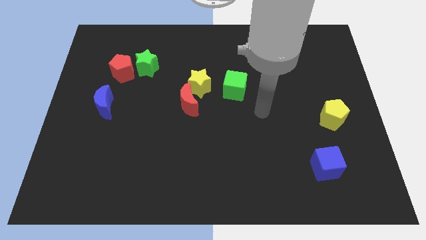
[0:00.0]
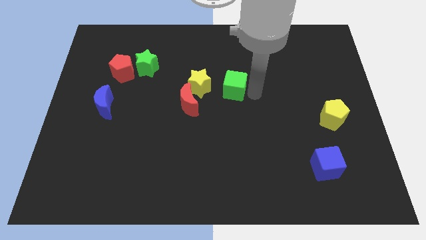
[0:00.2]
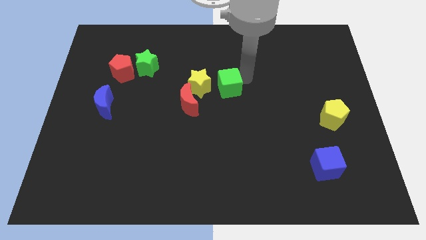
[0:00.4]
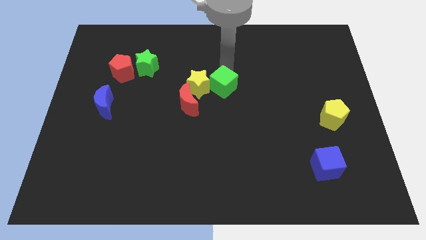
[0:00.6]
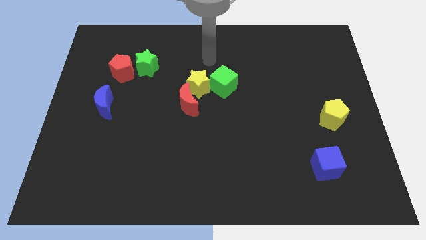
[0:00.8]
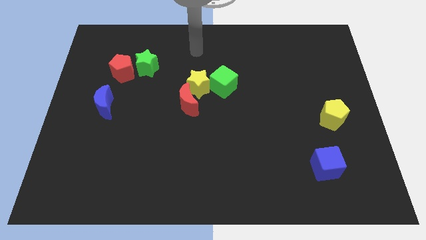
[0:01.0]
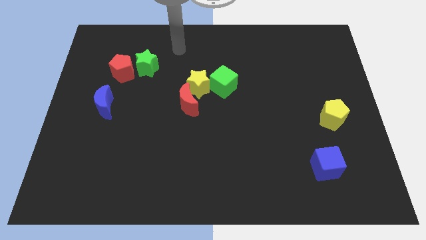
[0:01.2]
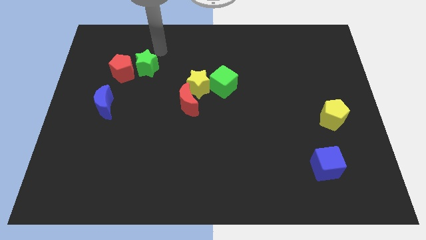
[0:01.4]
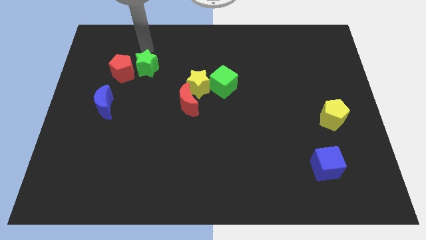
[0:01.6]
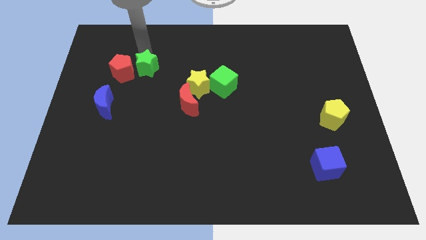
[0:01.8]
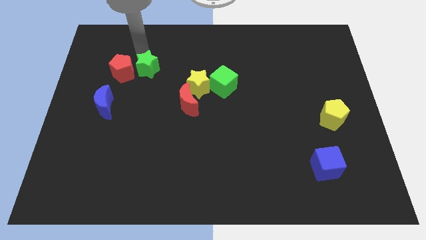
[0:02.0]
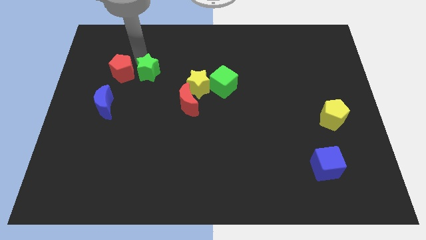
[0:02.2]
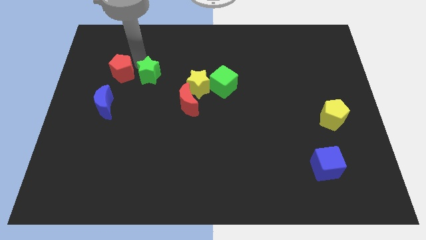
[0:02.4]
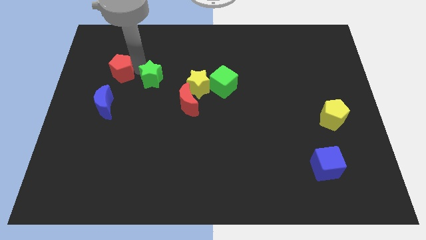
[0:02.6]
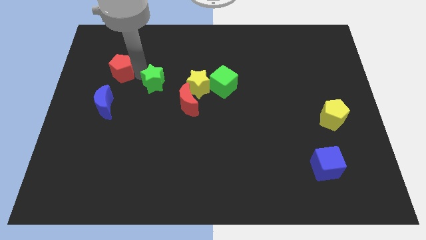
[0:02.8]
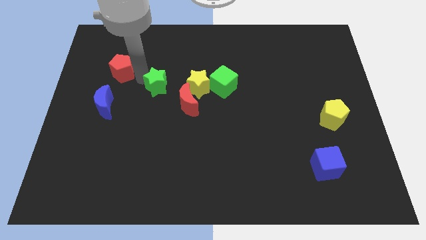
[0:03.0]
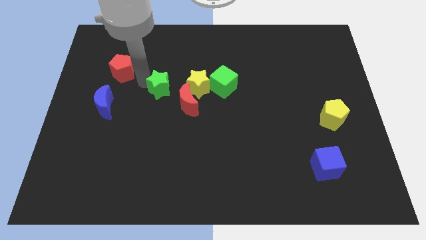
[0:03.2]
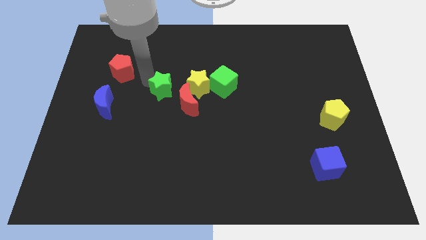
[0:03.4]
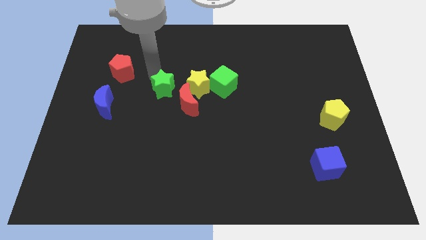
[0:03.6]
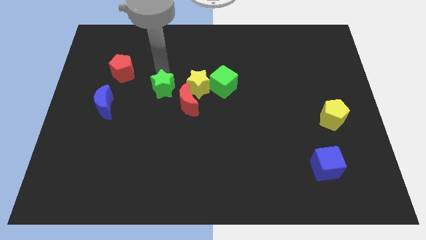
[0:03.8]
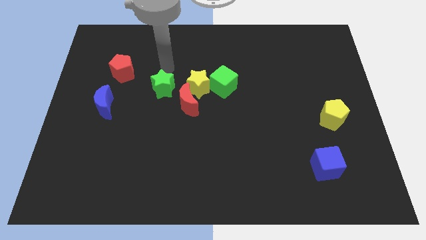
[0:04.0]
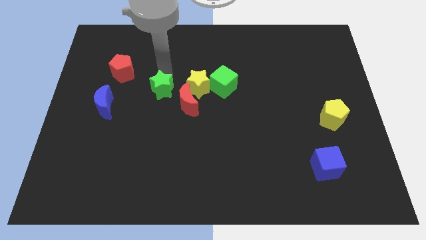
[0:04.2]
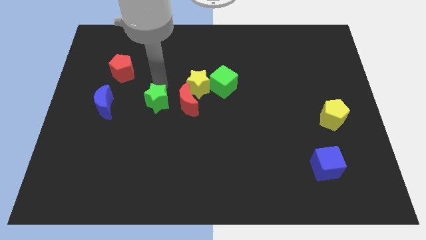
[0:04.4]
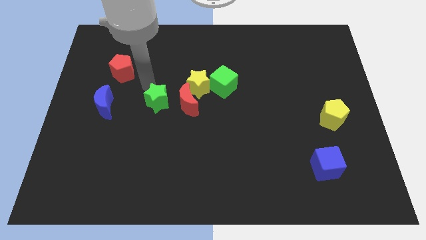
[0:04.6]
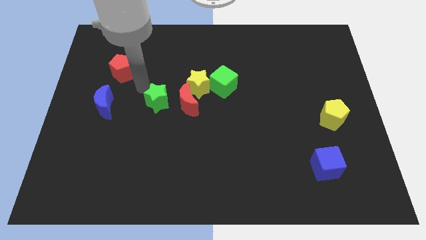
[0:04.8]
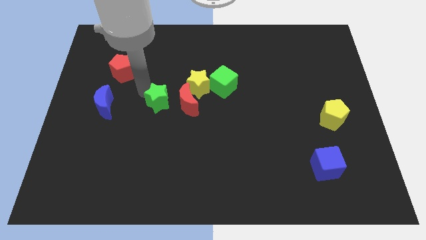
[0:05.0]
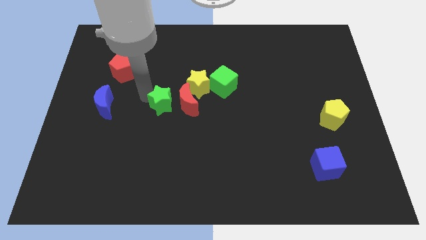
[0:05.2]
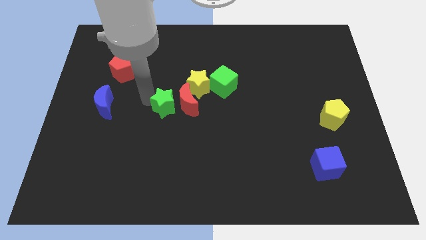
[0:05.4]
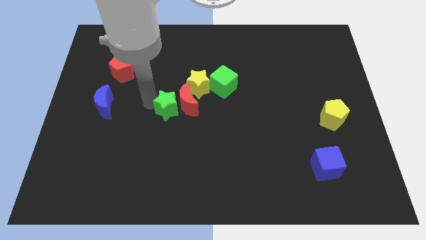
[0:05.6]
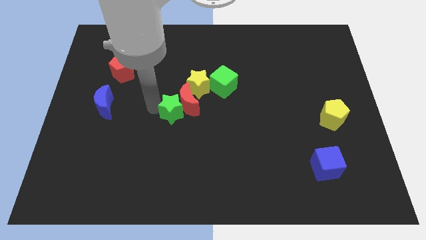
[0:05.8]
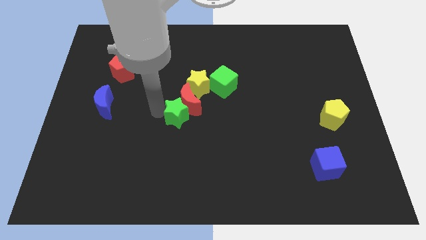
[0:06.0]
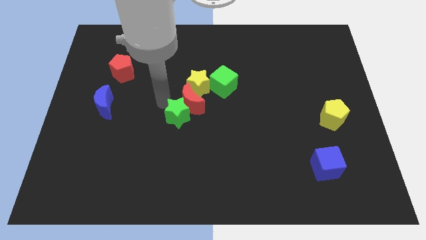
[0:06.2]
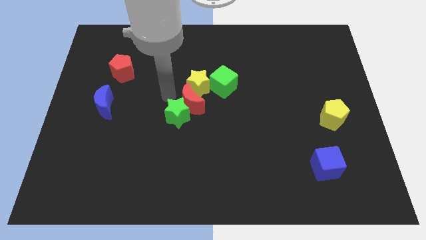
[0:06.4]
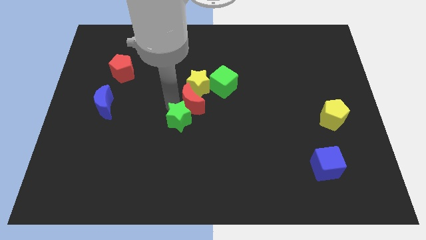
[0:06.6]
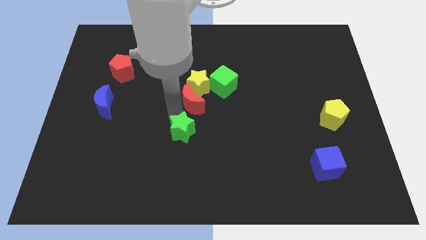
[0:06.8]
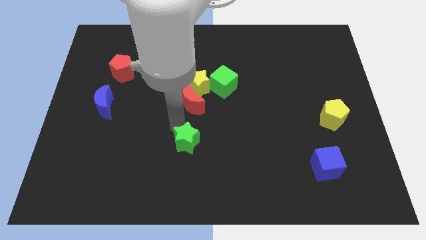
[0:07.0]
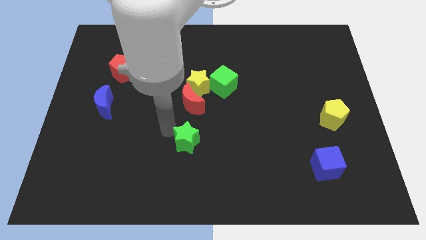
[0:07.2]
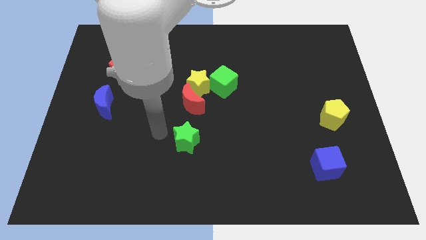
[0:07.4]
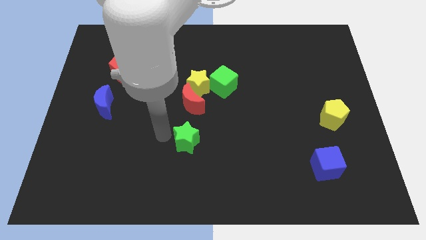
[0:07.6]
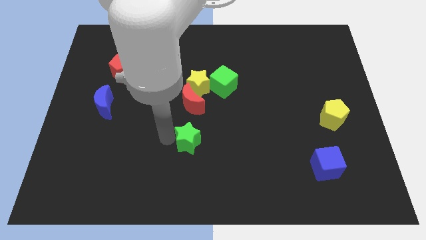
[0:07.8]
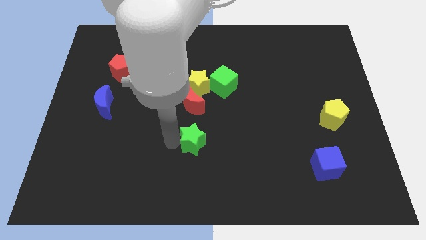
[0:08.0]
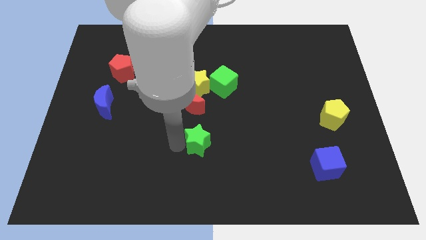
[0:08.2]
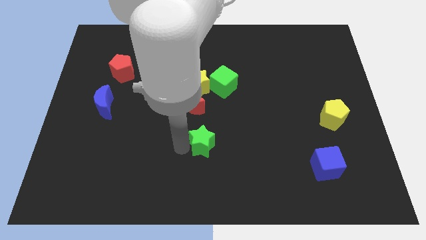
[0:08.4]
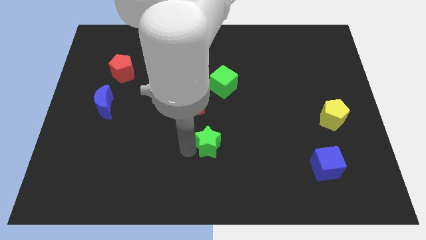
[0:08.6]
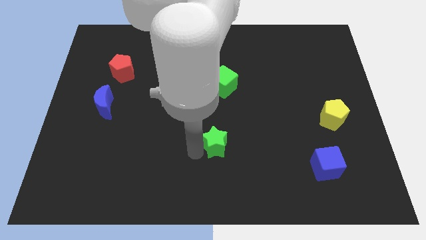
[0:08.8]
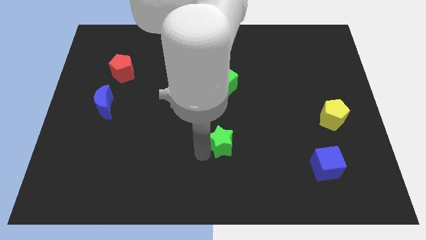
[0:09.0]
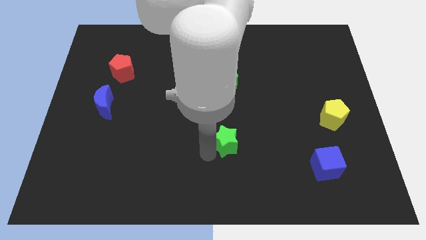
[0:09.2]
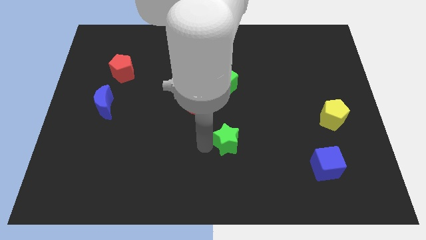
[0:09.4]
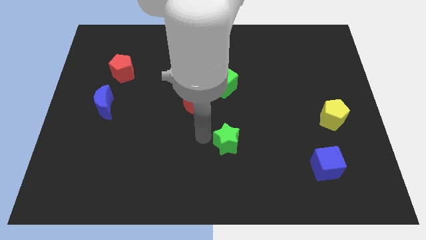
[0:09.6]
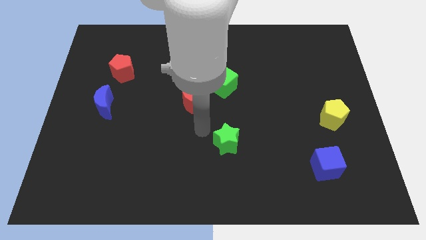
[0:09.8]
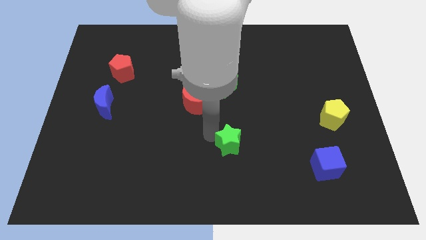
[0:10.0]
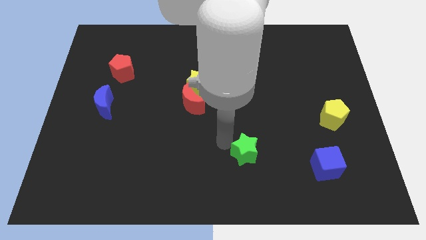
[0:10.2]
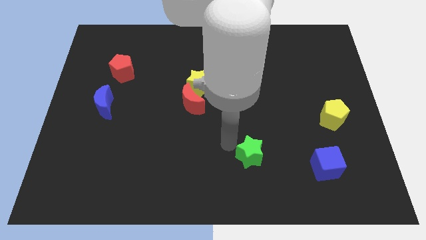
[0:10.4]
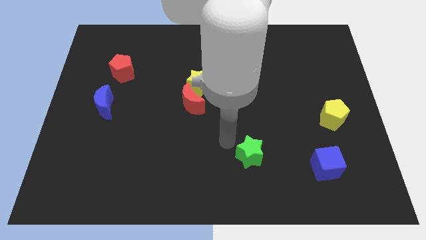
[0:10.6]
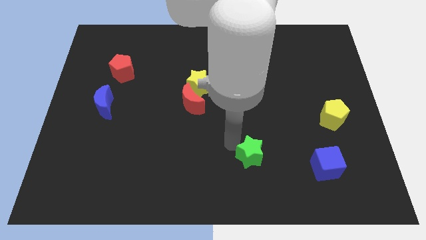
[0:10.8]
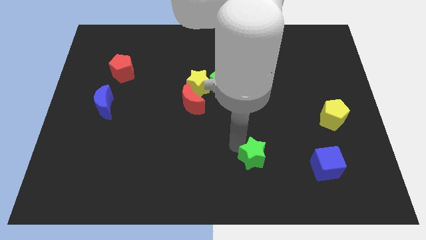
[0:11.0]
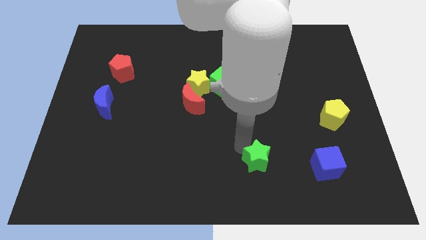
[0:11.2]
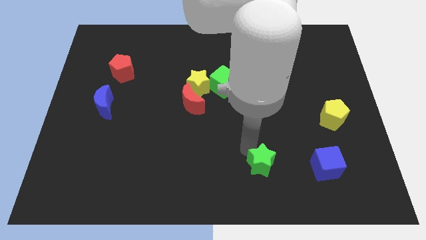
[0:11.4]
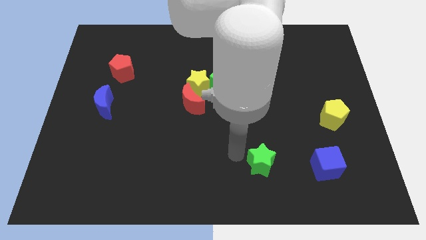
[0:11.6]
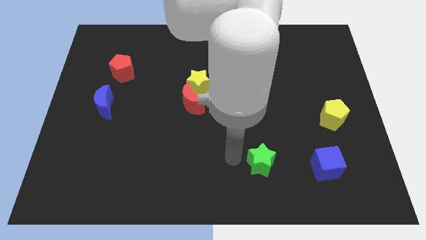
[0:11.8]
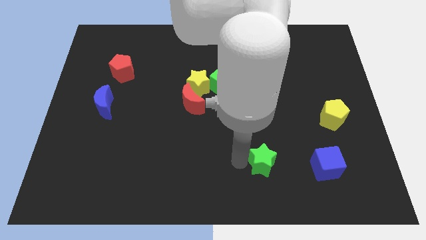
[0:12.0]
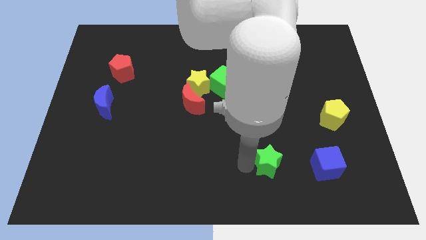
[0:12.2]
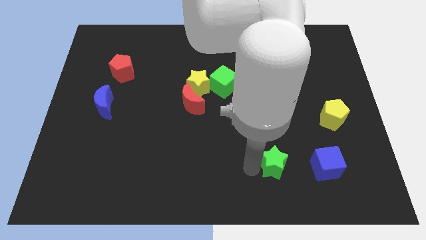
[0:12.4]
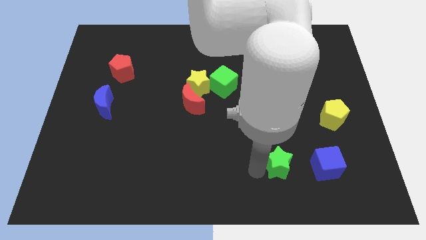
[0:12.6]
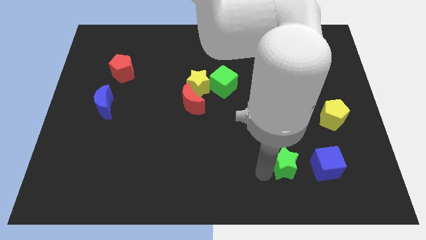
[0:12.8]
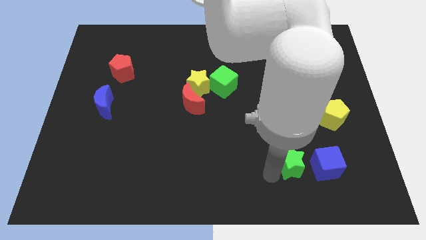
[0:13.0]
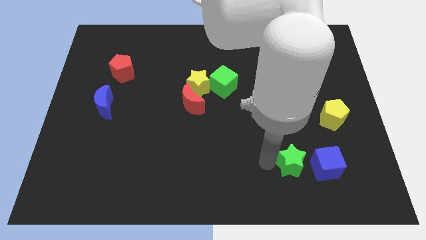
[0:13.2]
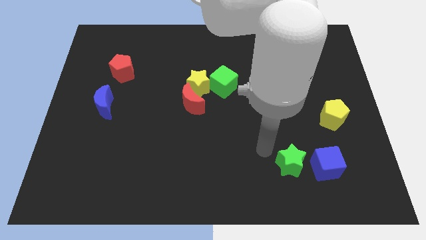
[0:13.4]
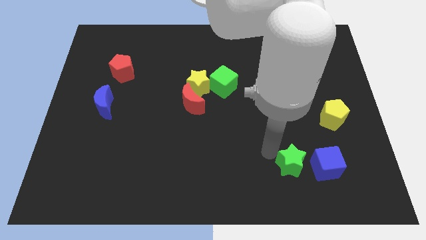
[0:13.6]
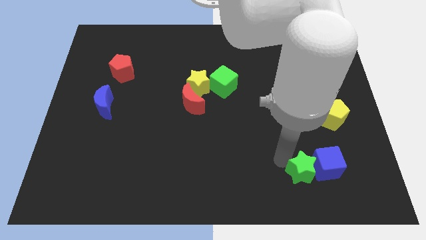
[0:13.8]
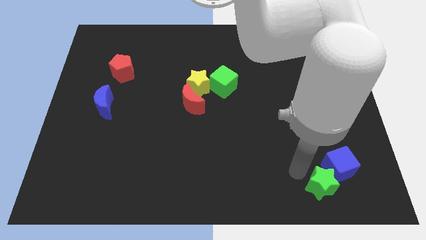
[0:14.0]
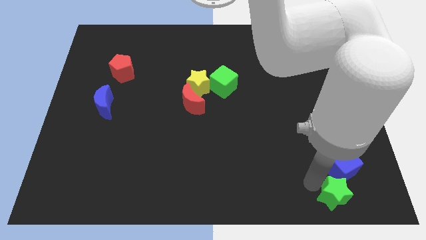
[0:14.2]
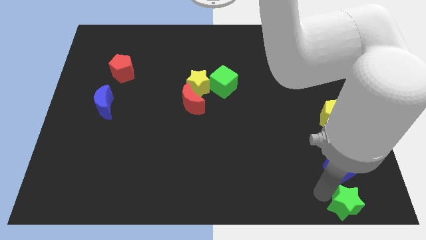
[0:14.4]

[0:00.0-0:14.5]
slide the green star to the bottom right
